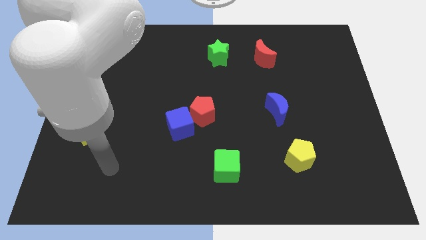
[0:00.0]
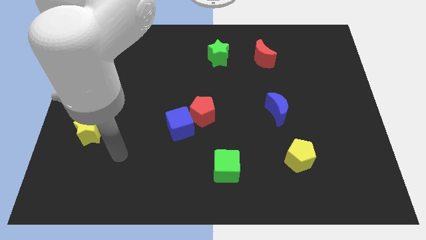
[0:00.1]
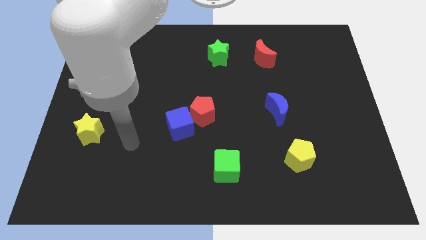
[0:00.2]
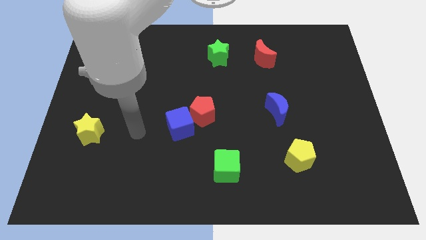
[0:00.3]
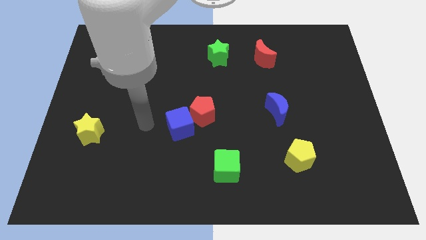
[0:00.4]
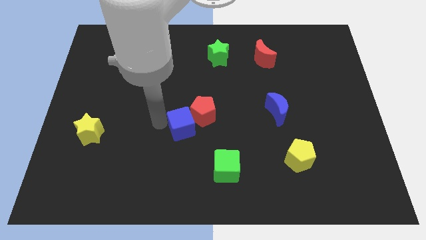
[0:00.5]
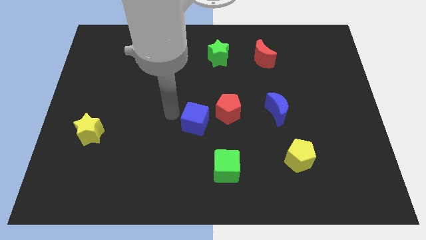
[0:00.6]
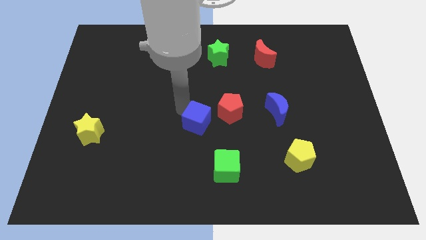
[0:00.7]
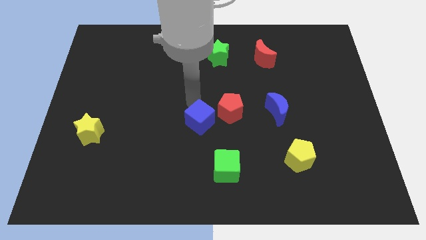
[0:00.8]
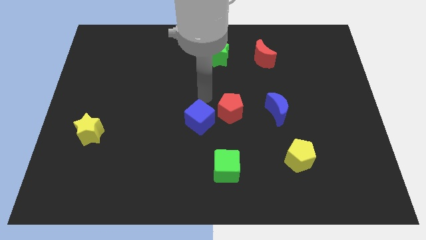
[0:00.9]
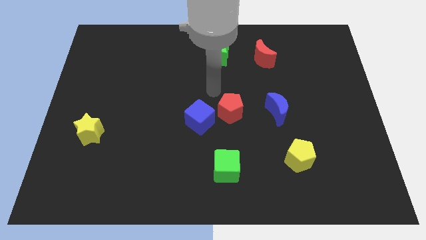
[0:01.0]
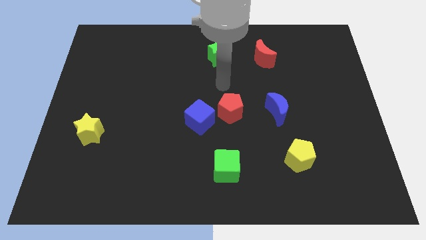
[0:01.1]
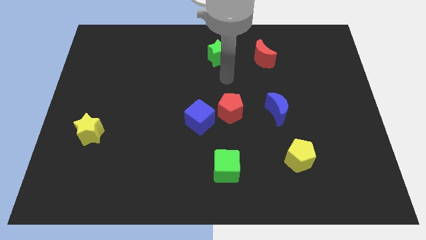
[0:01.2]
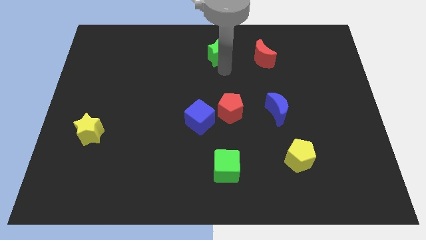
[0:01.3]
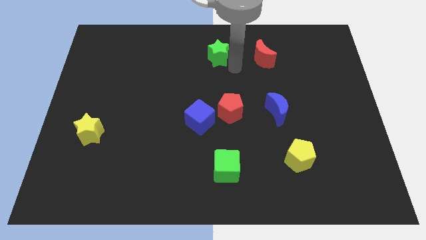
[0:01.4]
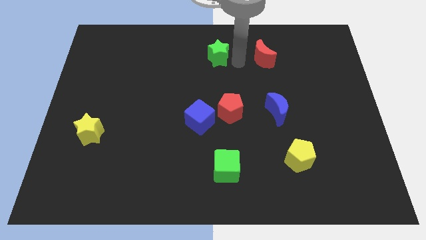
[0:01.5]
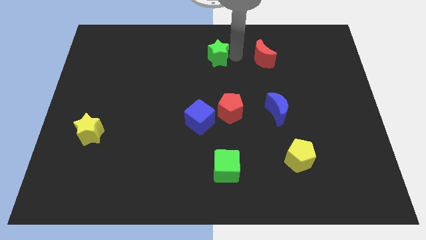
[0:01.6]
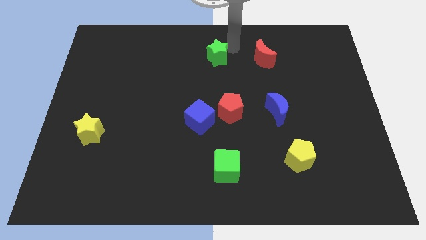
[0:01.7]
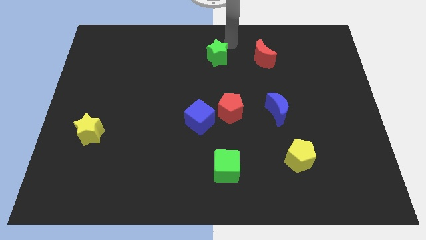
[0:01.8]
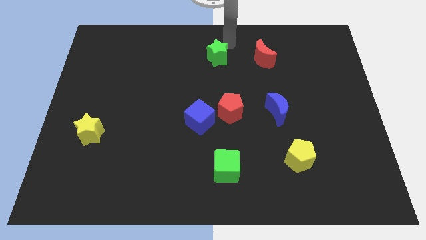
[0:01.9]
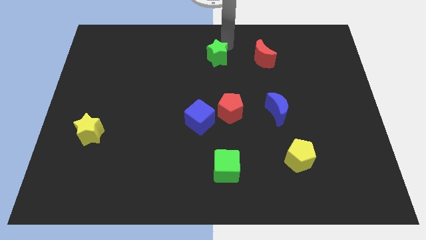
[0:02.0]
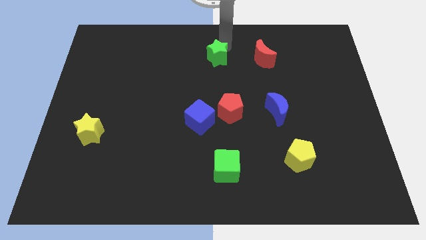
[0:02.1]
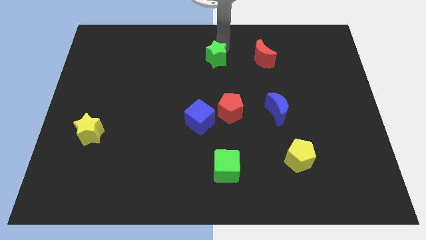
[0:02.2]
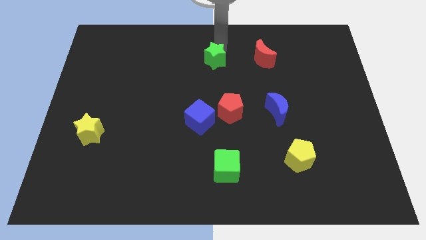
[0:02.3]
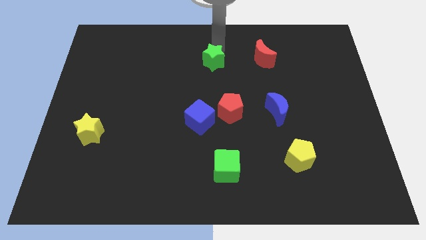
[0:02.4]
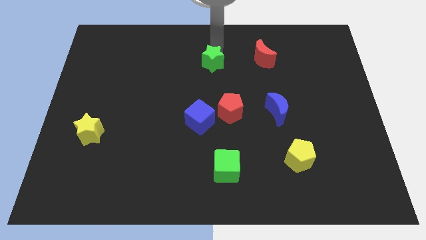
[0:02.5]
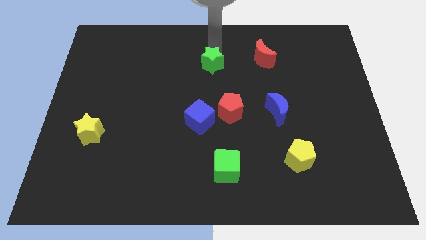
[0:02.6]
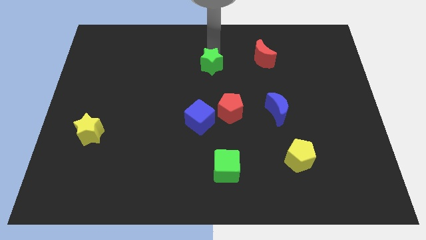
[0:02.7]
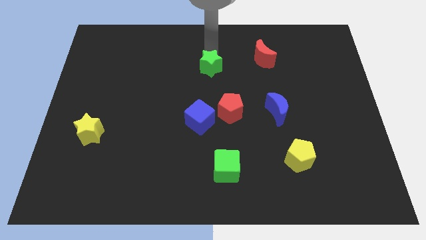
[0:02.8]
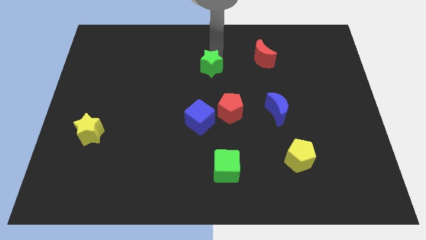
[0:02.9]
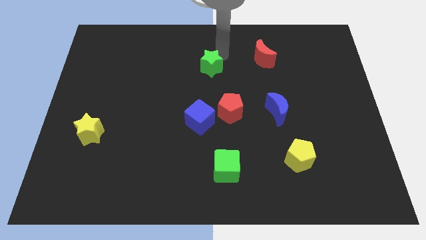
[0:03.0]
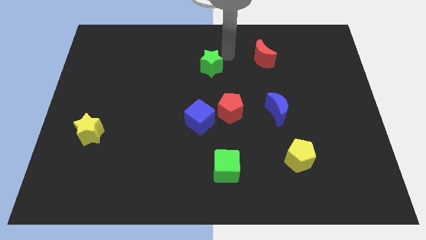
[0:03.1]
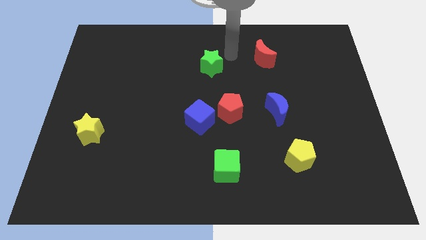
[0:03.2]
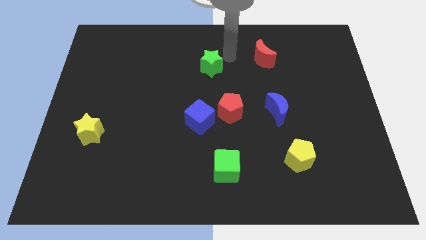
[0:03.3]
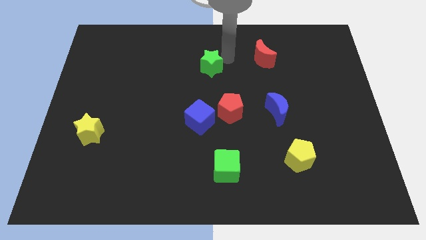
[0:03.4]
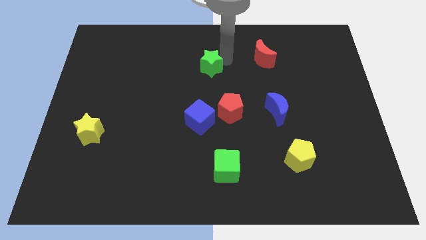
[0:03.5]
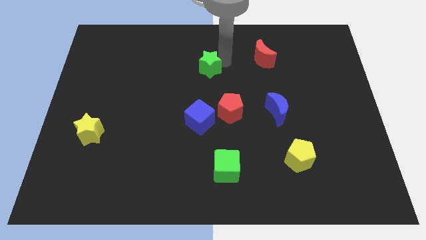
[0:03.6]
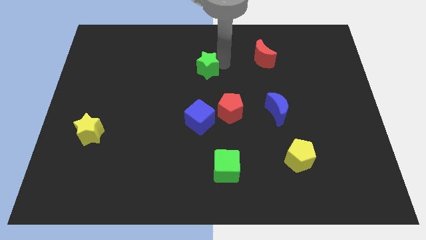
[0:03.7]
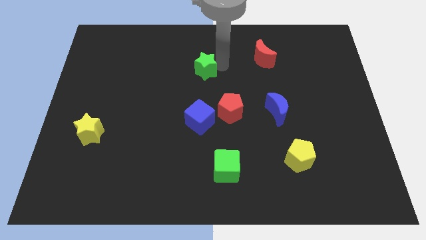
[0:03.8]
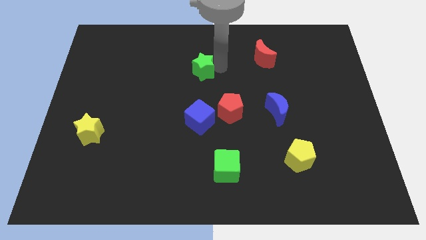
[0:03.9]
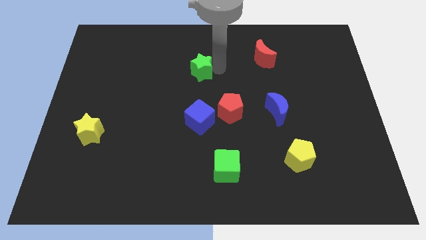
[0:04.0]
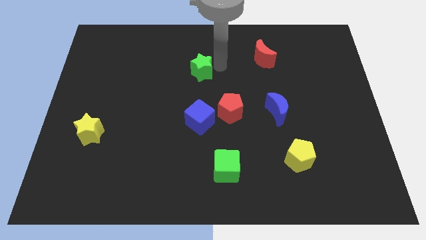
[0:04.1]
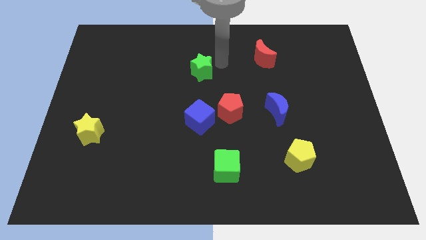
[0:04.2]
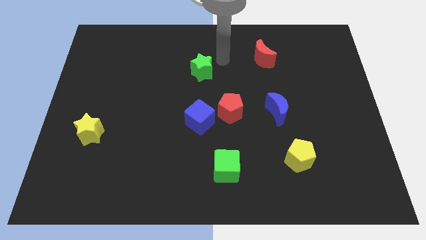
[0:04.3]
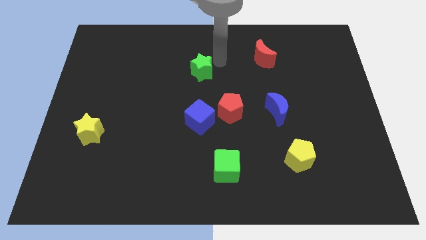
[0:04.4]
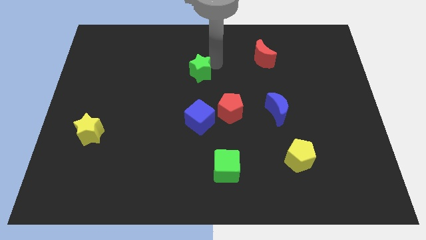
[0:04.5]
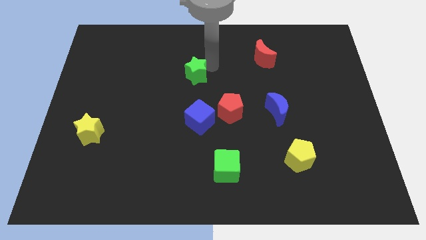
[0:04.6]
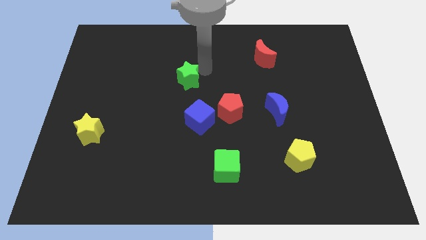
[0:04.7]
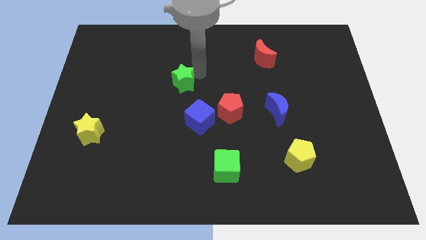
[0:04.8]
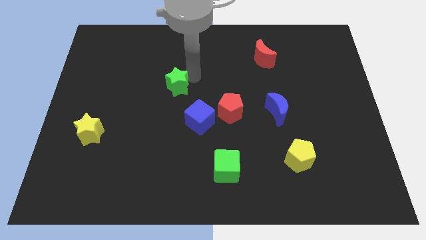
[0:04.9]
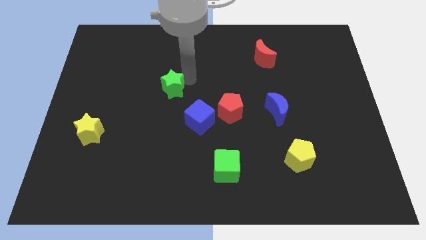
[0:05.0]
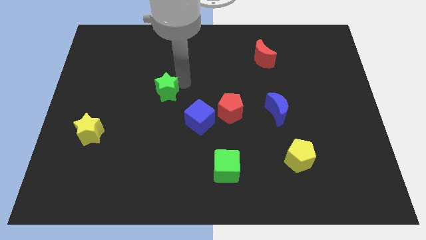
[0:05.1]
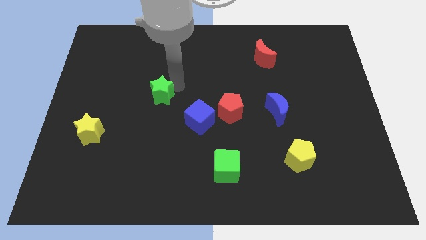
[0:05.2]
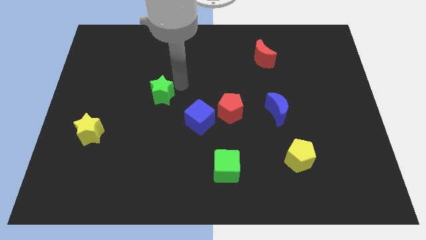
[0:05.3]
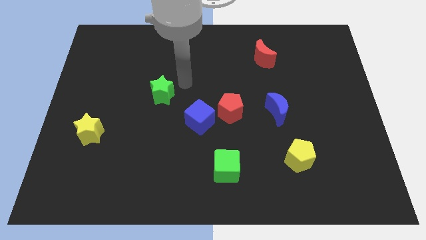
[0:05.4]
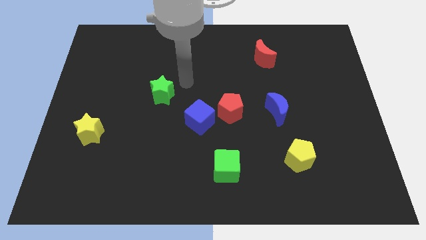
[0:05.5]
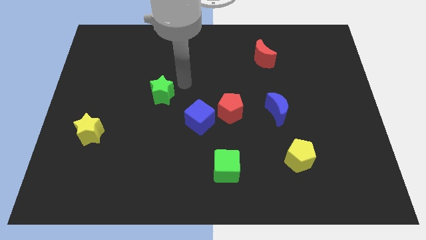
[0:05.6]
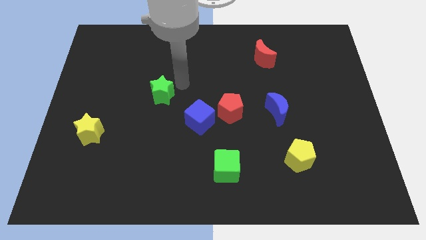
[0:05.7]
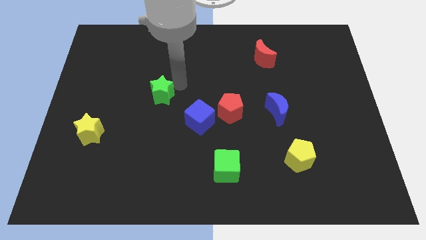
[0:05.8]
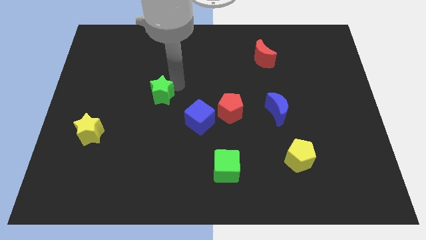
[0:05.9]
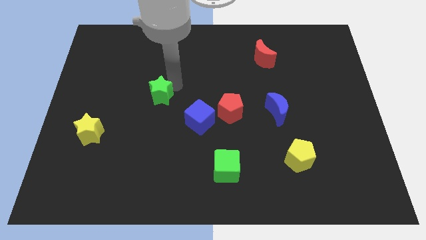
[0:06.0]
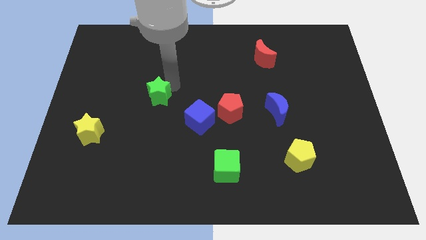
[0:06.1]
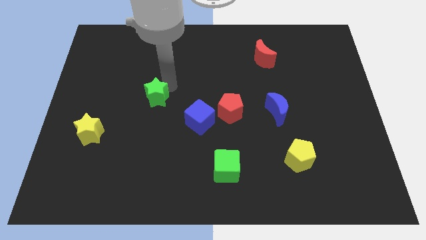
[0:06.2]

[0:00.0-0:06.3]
push the green star downwards and then to the left

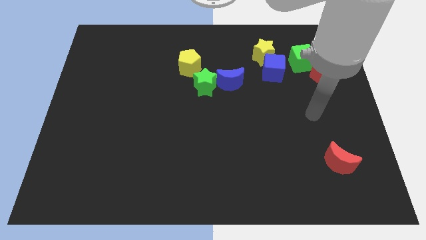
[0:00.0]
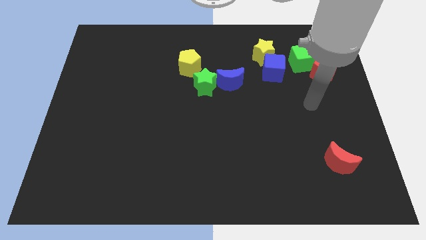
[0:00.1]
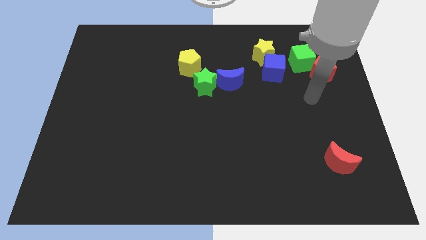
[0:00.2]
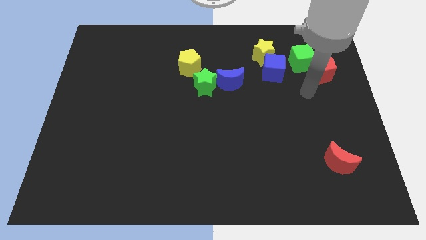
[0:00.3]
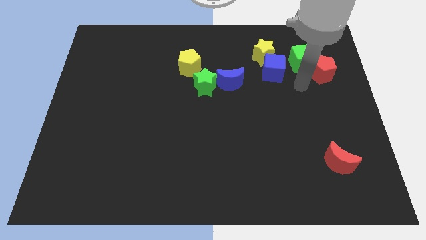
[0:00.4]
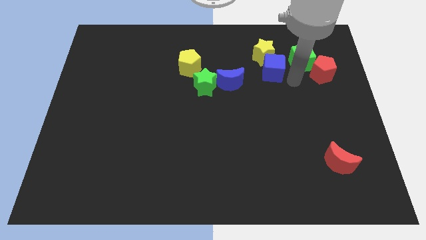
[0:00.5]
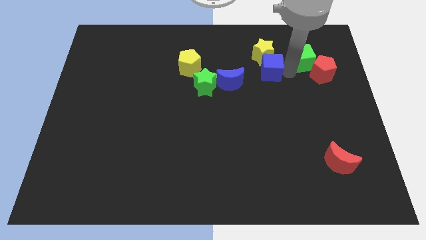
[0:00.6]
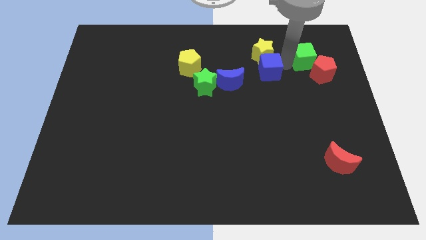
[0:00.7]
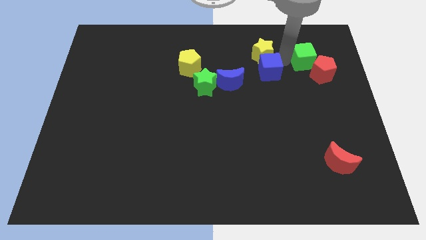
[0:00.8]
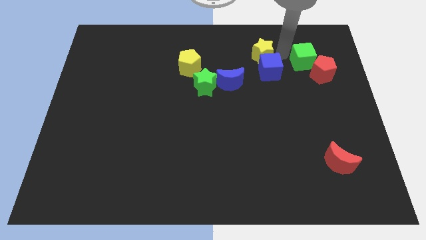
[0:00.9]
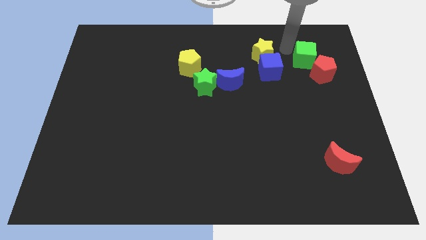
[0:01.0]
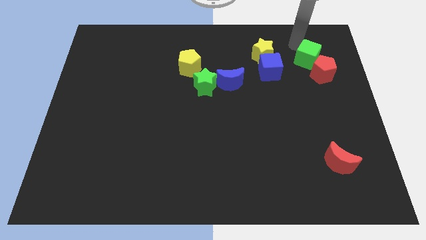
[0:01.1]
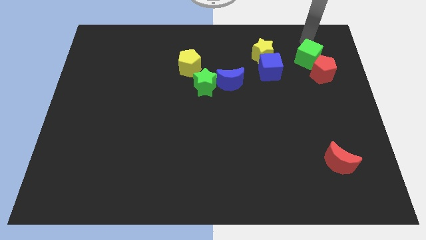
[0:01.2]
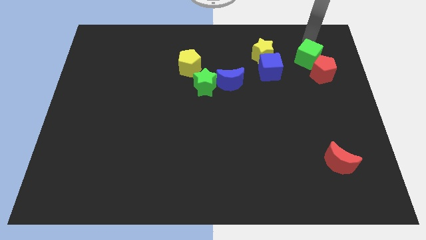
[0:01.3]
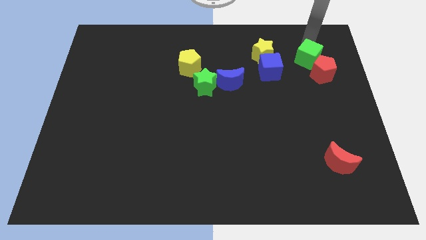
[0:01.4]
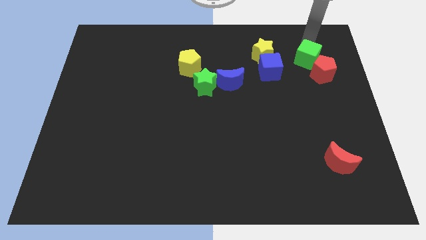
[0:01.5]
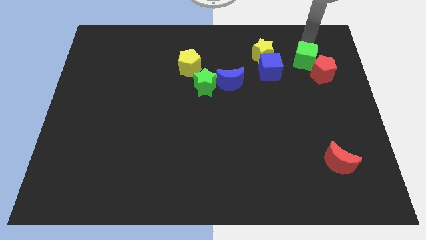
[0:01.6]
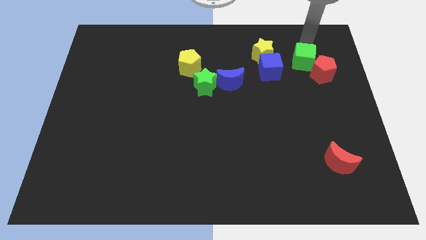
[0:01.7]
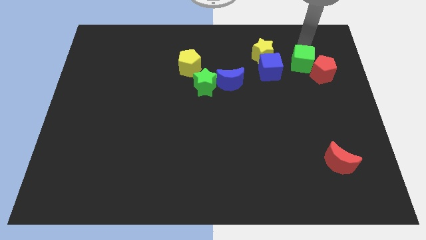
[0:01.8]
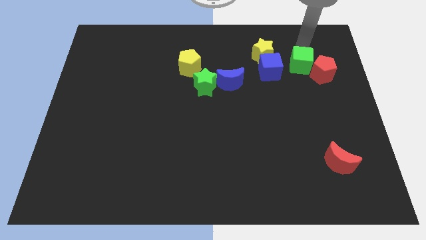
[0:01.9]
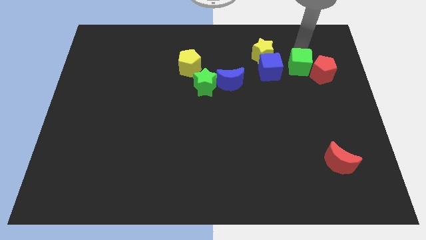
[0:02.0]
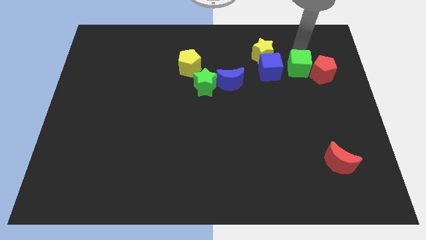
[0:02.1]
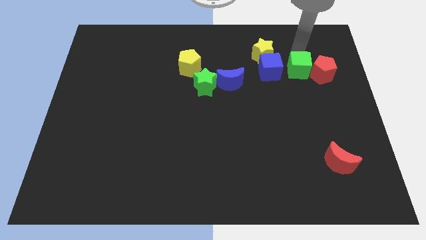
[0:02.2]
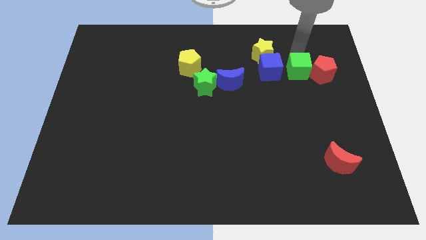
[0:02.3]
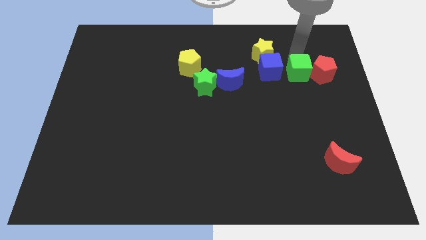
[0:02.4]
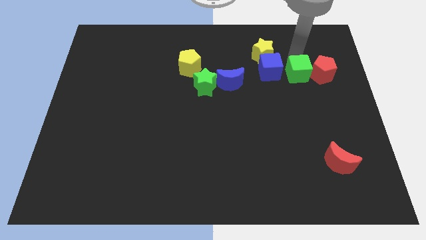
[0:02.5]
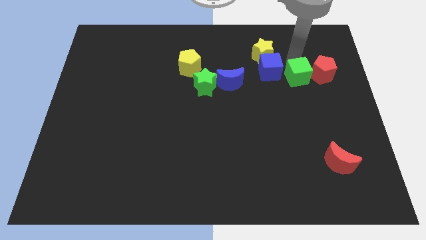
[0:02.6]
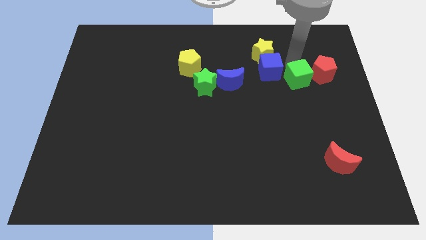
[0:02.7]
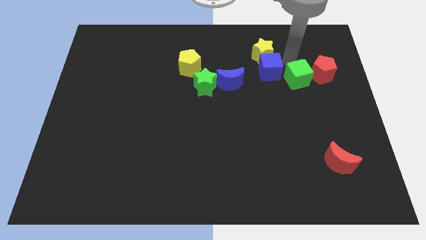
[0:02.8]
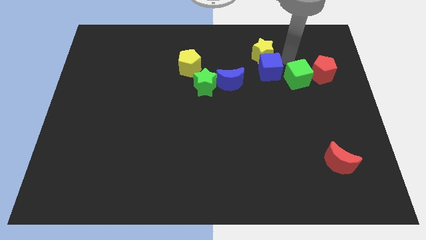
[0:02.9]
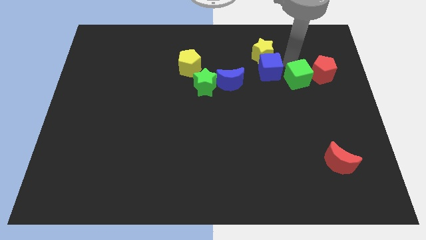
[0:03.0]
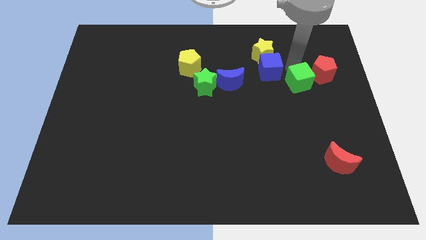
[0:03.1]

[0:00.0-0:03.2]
push the green cube somewhat down
